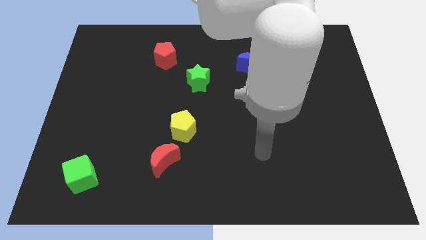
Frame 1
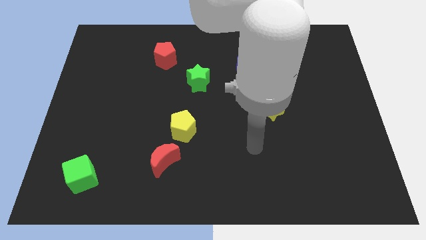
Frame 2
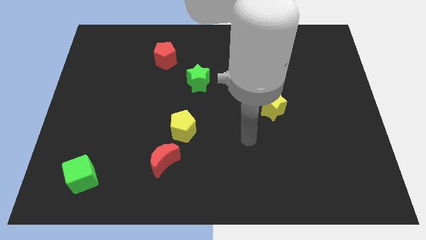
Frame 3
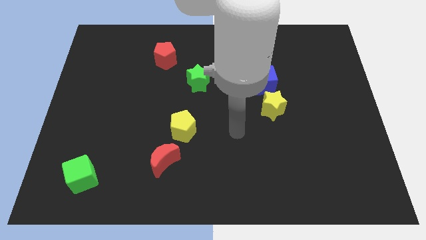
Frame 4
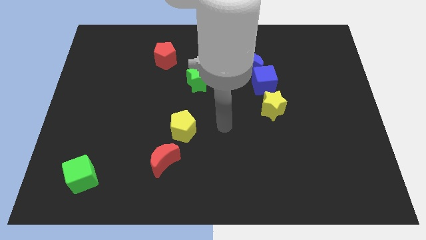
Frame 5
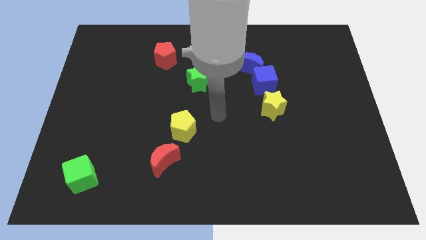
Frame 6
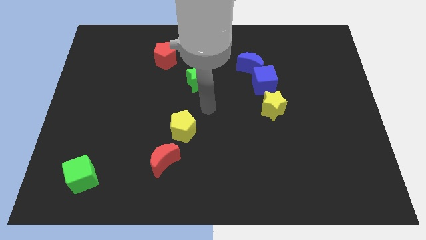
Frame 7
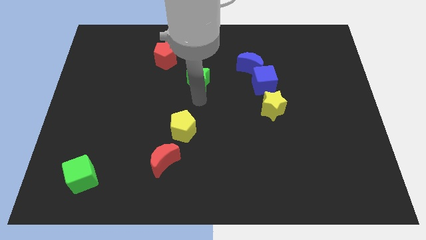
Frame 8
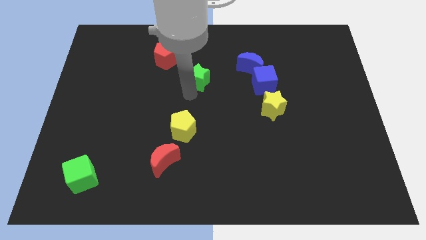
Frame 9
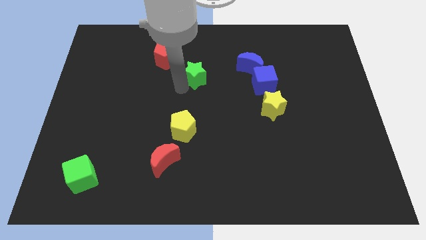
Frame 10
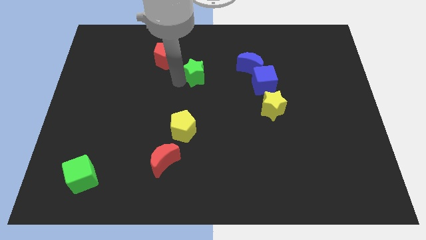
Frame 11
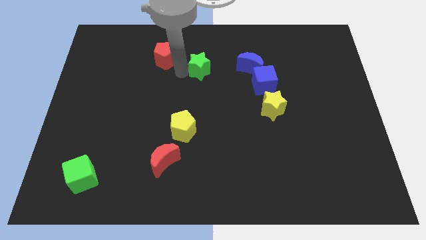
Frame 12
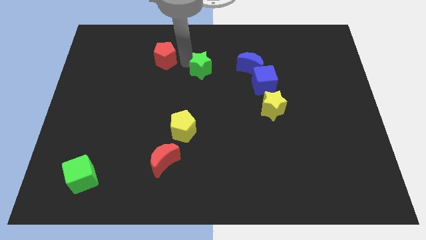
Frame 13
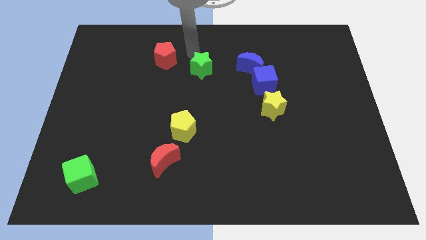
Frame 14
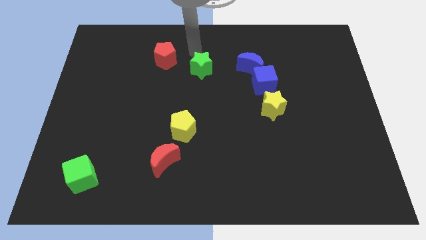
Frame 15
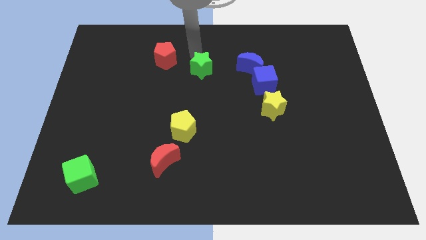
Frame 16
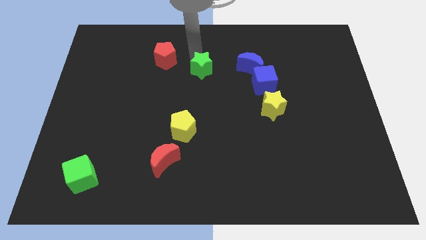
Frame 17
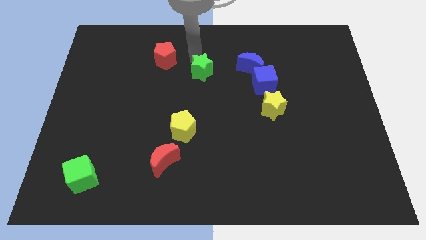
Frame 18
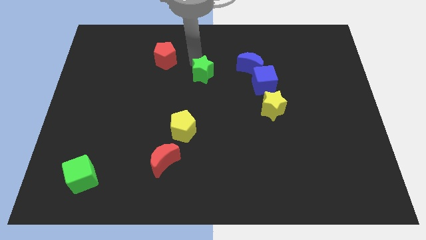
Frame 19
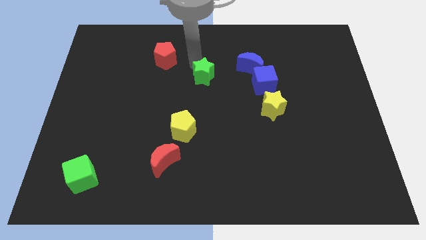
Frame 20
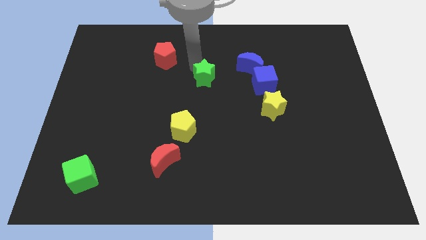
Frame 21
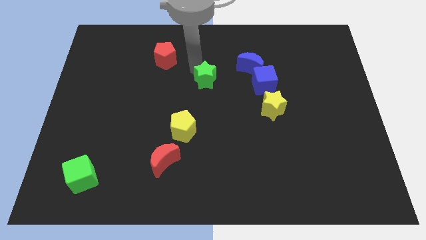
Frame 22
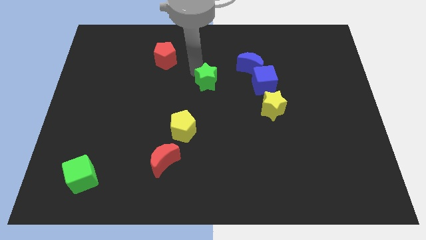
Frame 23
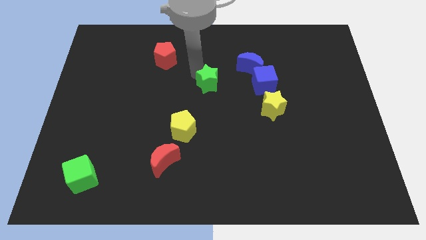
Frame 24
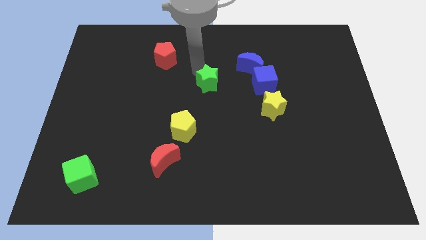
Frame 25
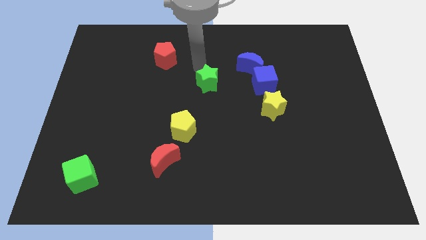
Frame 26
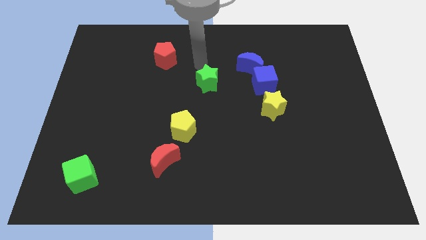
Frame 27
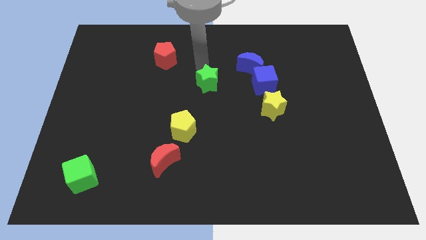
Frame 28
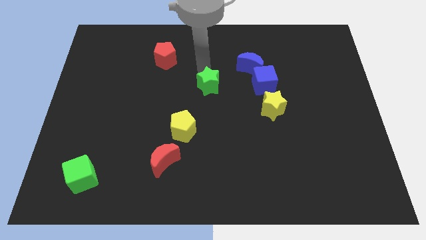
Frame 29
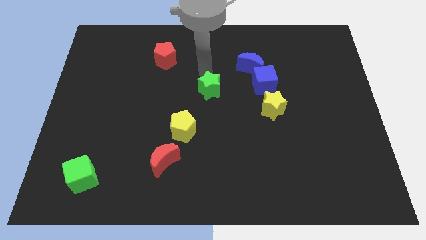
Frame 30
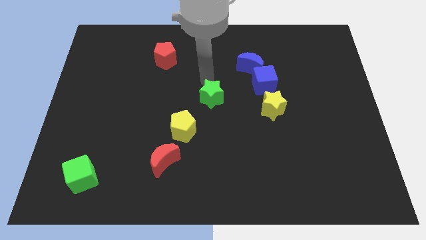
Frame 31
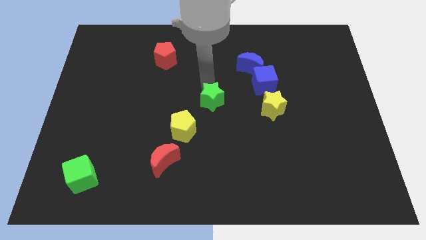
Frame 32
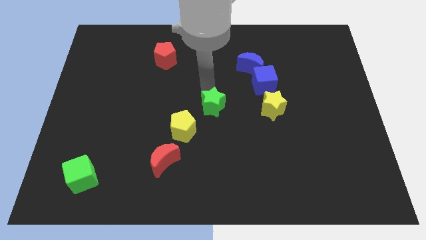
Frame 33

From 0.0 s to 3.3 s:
push the green star down and then right slightly

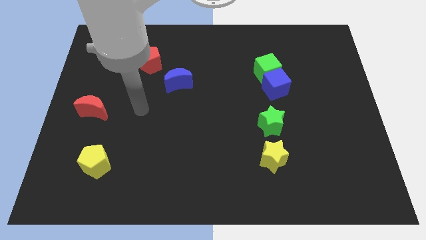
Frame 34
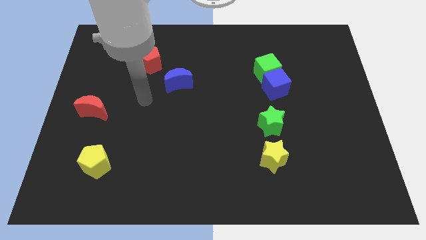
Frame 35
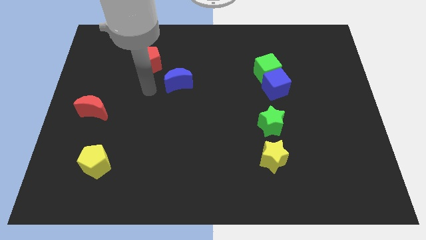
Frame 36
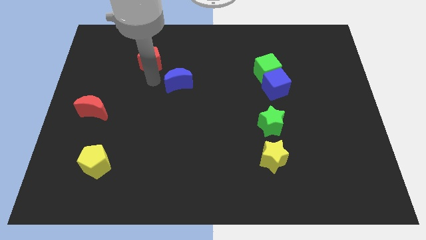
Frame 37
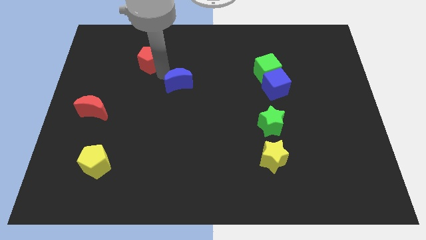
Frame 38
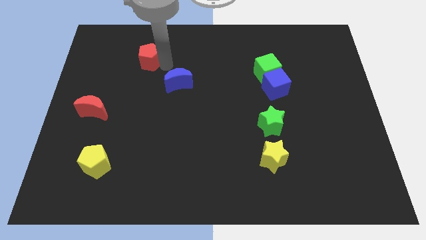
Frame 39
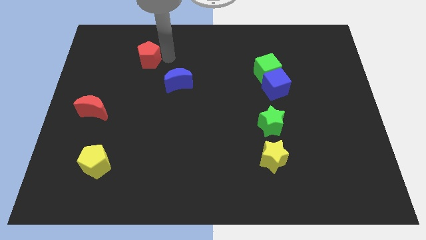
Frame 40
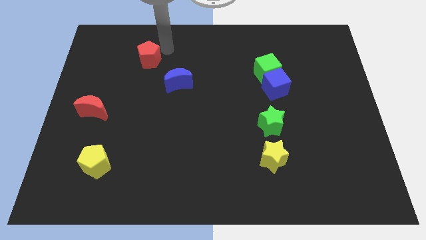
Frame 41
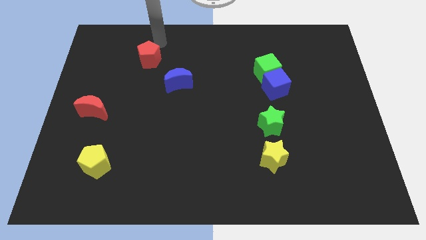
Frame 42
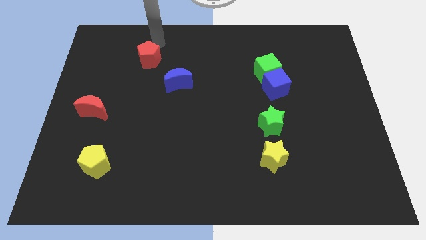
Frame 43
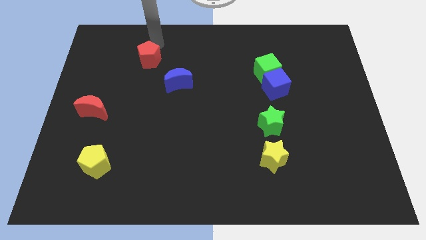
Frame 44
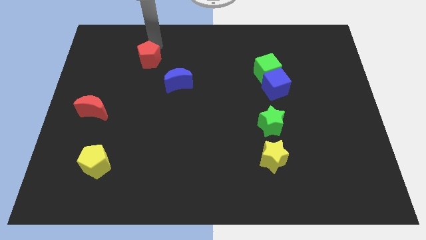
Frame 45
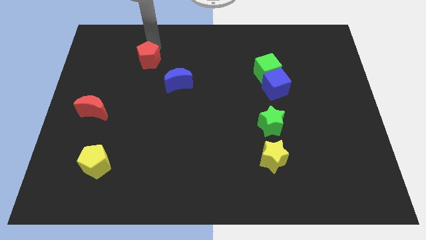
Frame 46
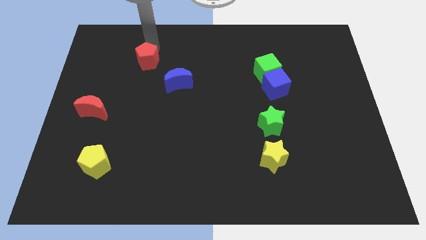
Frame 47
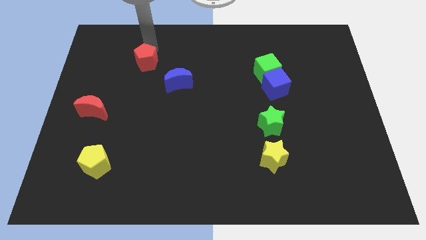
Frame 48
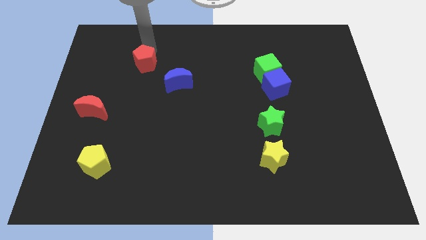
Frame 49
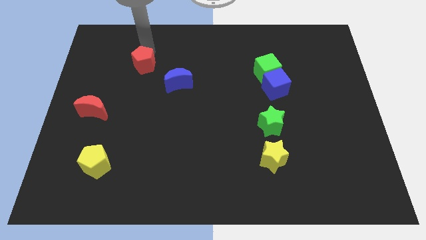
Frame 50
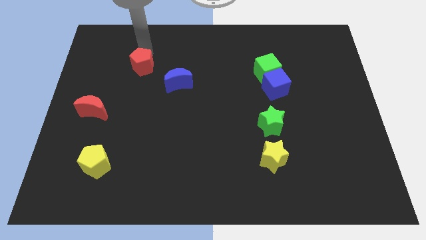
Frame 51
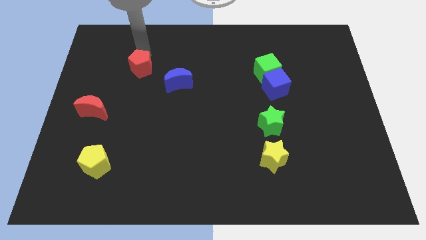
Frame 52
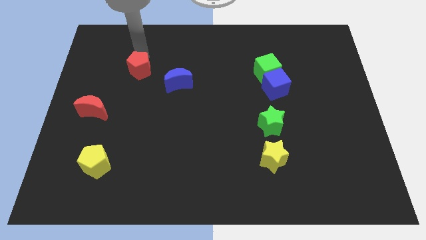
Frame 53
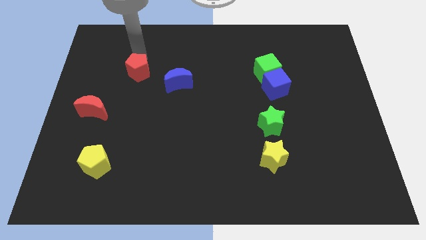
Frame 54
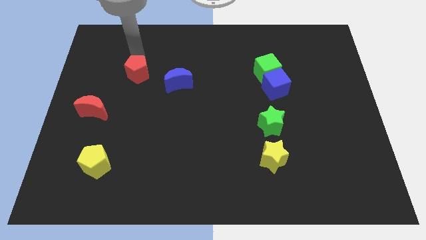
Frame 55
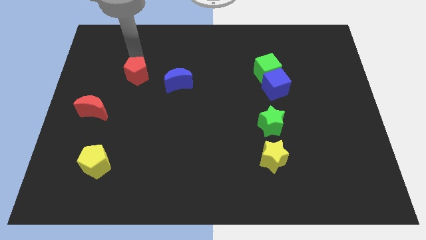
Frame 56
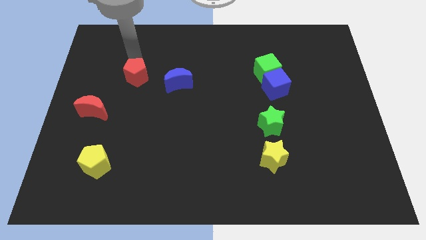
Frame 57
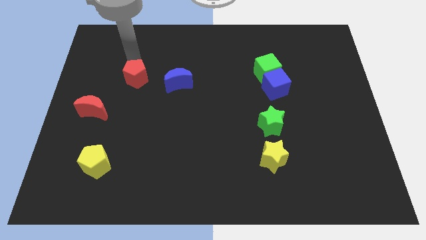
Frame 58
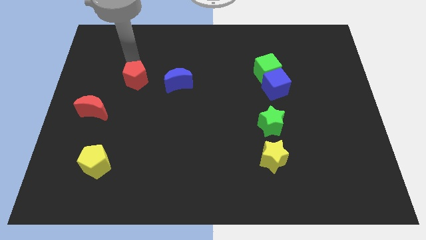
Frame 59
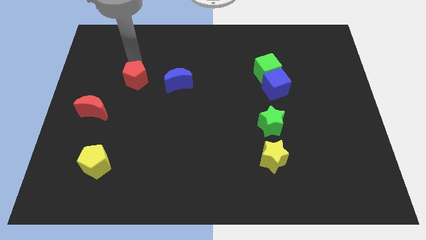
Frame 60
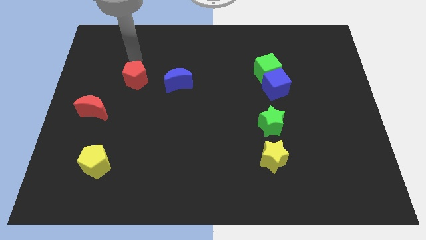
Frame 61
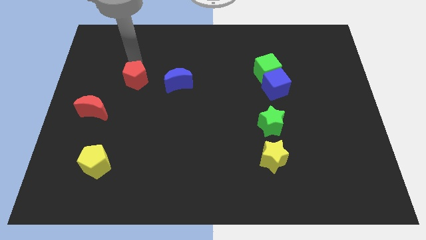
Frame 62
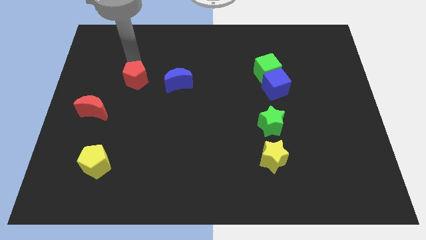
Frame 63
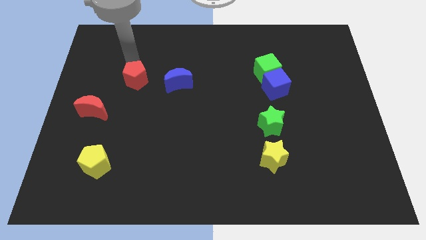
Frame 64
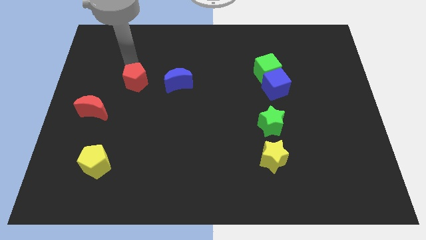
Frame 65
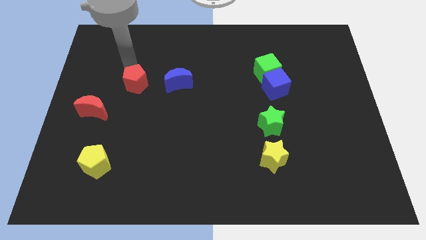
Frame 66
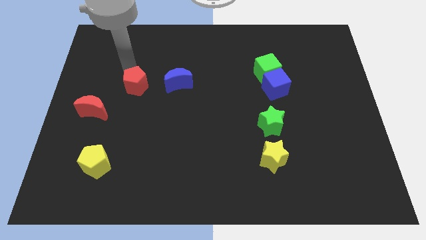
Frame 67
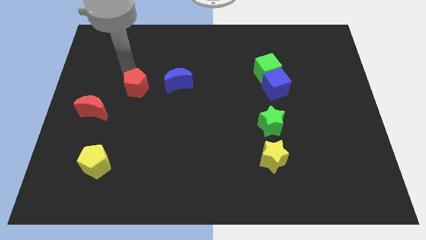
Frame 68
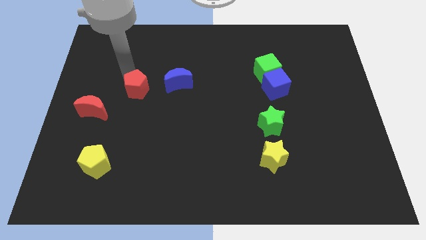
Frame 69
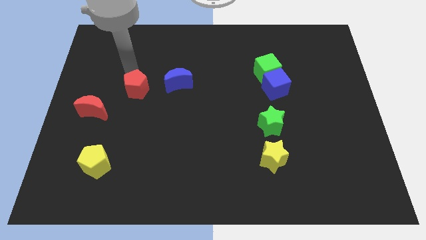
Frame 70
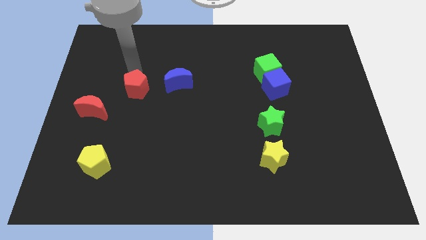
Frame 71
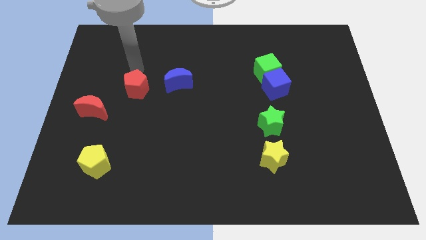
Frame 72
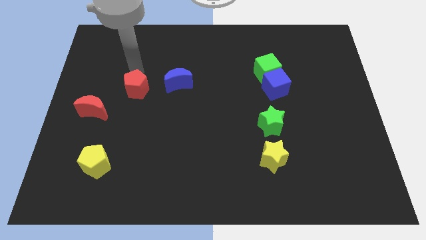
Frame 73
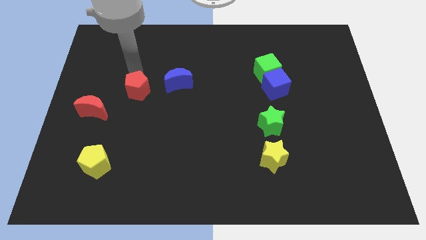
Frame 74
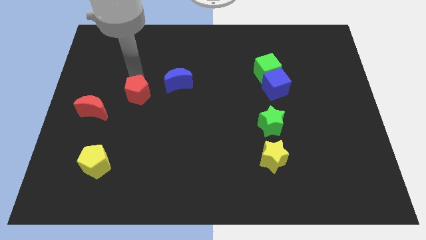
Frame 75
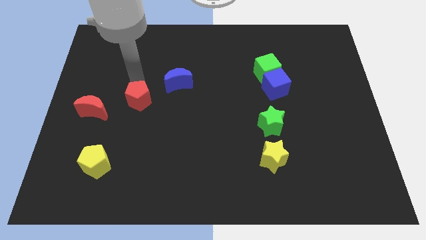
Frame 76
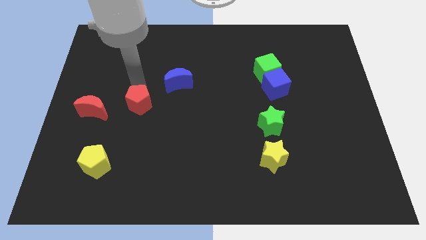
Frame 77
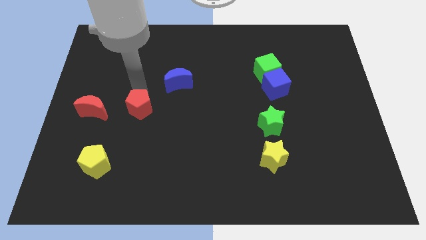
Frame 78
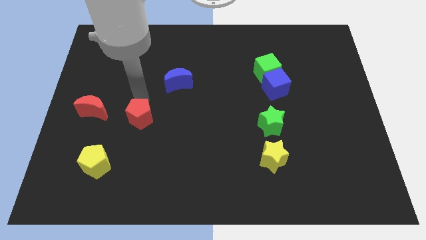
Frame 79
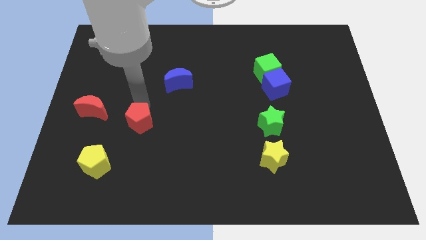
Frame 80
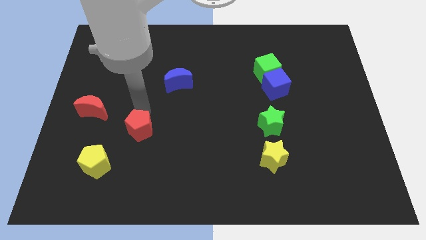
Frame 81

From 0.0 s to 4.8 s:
slide the red pentagon down
